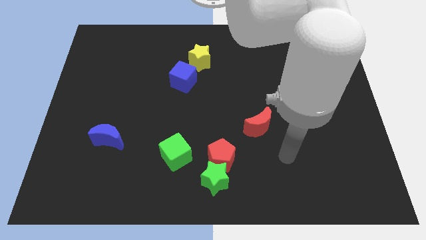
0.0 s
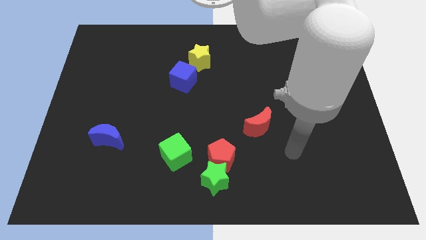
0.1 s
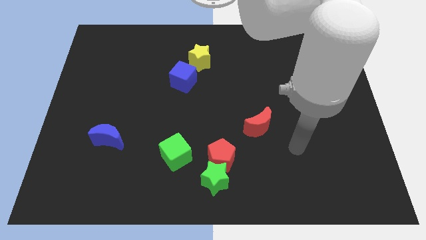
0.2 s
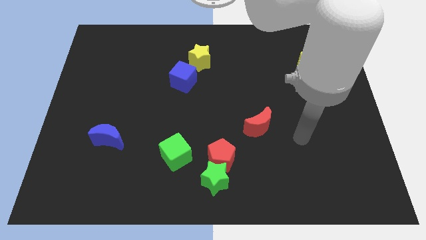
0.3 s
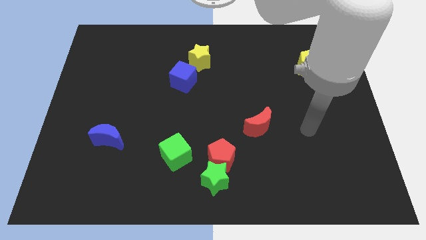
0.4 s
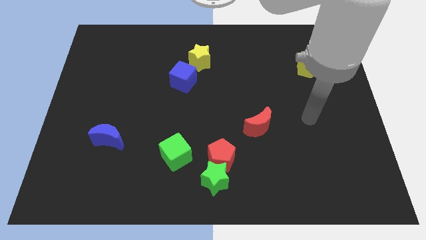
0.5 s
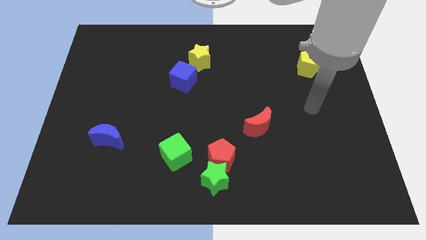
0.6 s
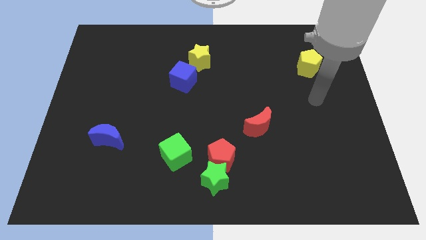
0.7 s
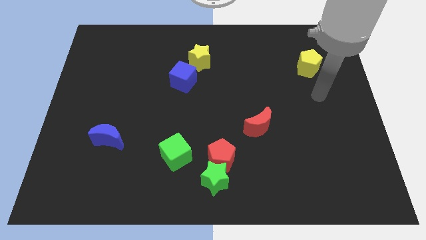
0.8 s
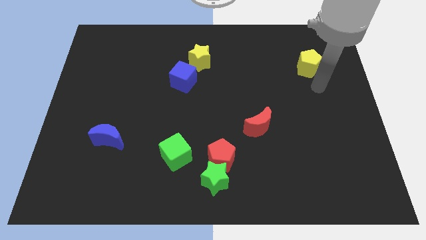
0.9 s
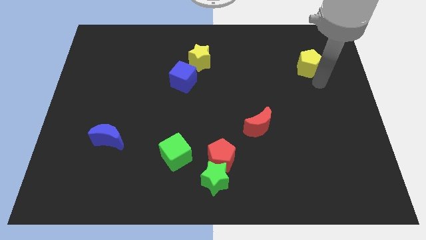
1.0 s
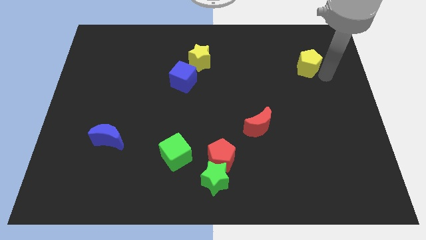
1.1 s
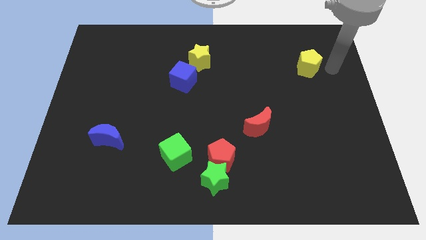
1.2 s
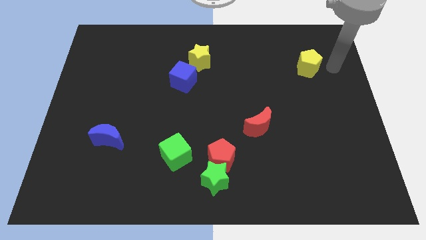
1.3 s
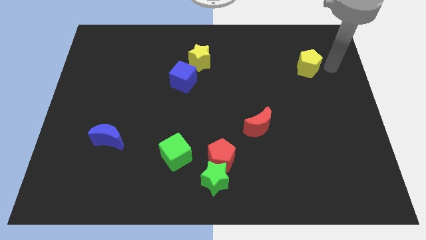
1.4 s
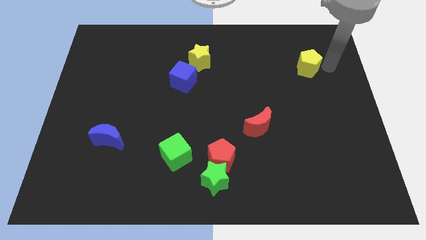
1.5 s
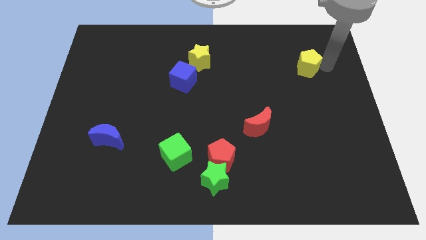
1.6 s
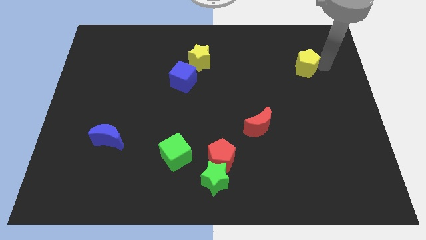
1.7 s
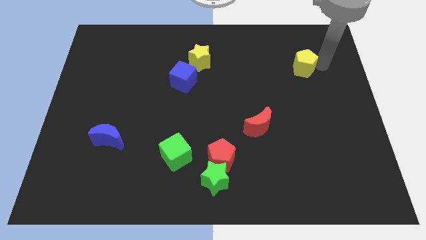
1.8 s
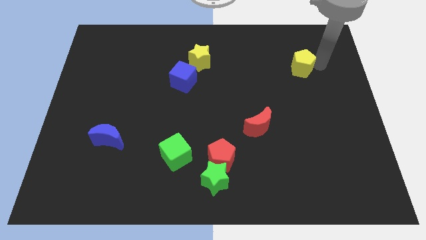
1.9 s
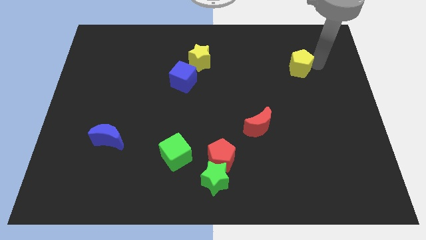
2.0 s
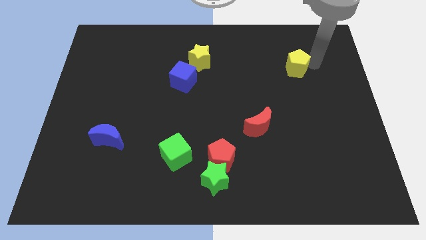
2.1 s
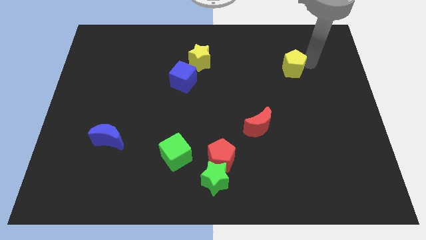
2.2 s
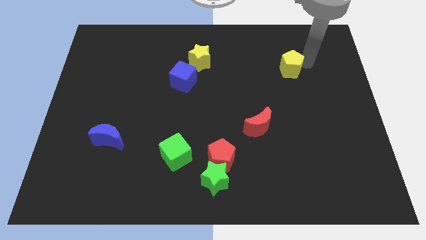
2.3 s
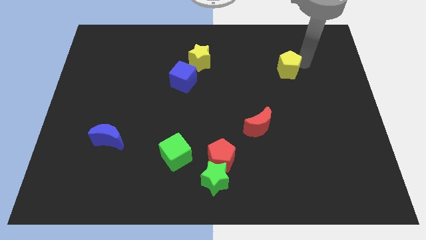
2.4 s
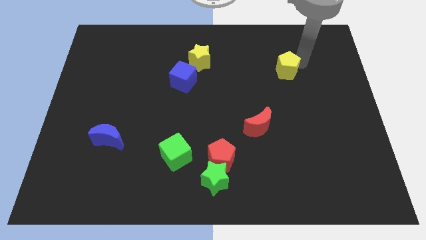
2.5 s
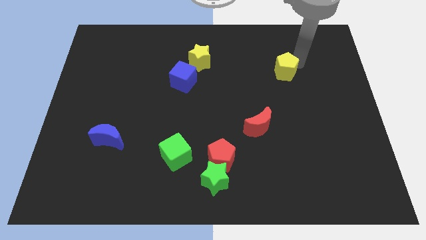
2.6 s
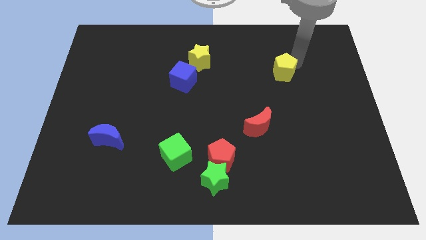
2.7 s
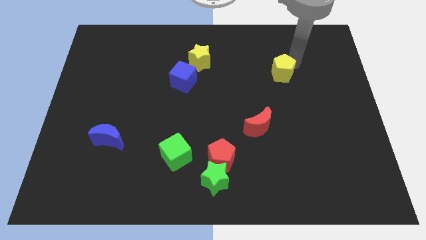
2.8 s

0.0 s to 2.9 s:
push the yellow pentagon to the left a little

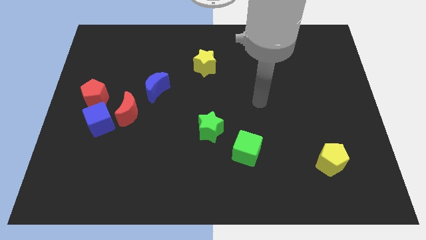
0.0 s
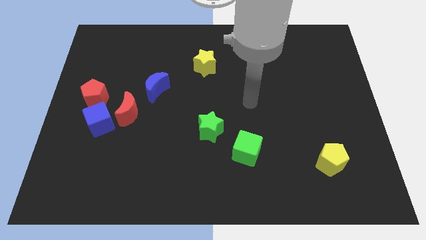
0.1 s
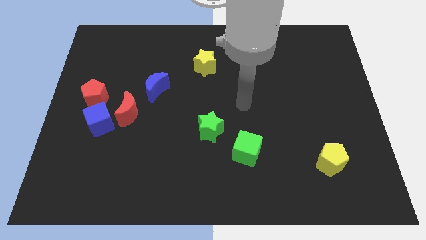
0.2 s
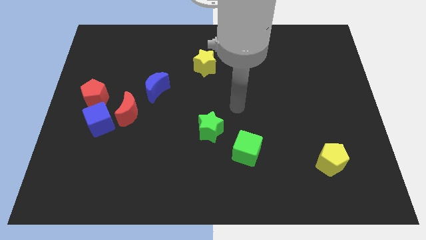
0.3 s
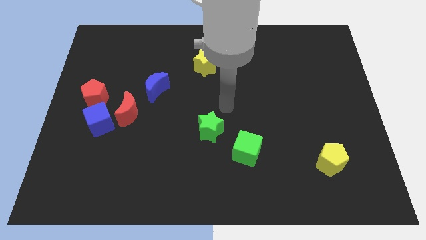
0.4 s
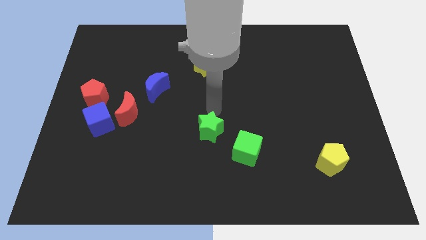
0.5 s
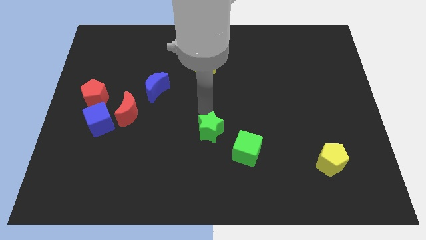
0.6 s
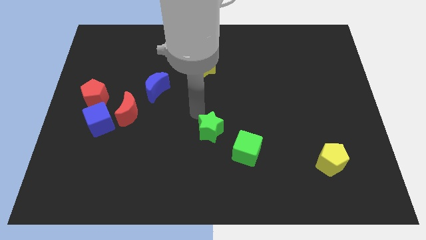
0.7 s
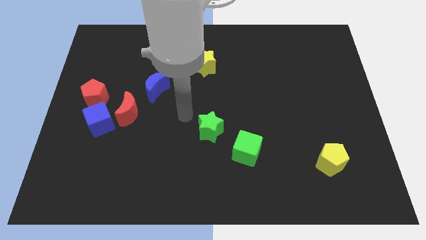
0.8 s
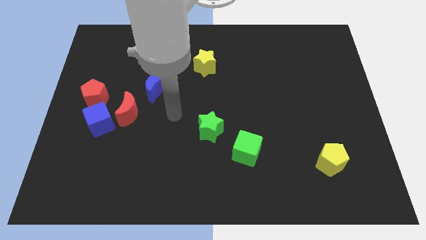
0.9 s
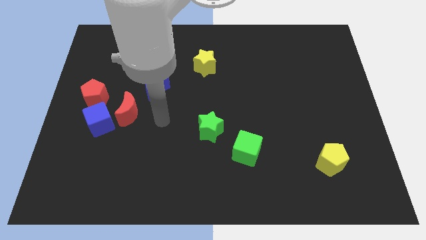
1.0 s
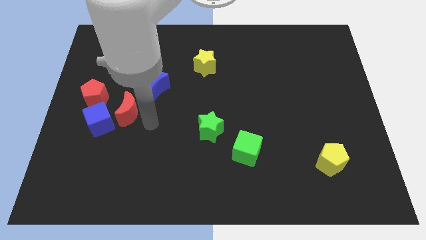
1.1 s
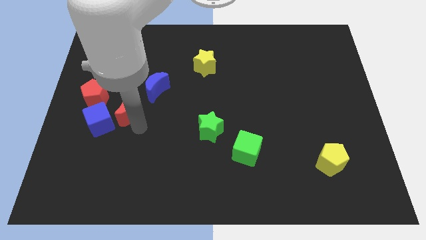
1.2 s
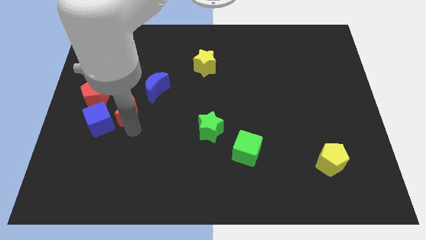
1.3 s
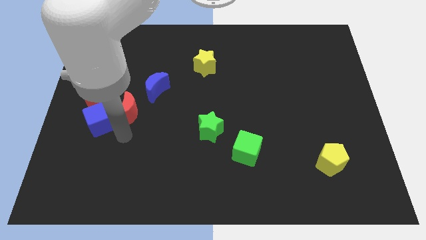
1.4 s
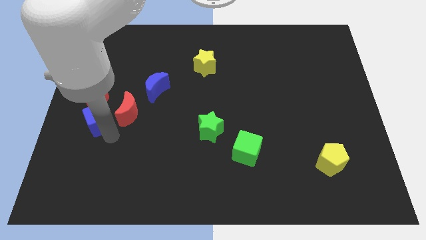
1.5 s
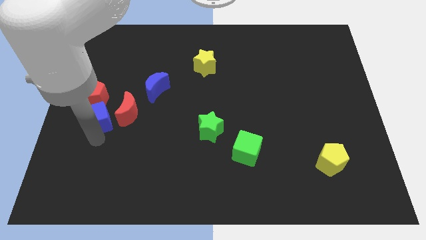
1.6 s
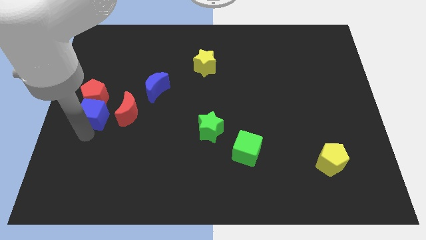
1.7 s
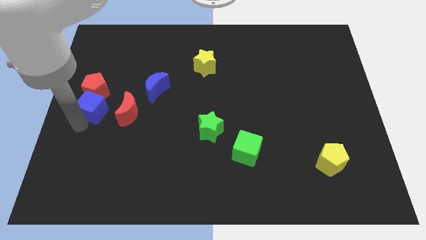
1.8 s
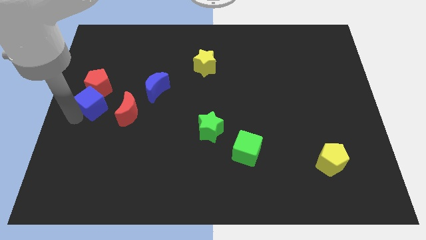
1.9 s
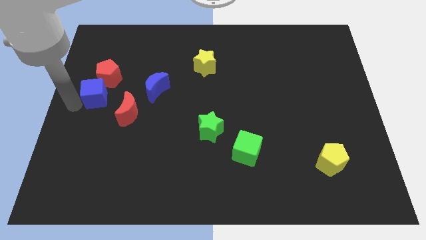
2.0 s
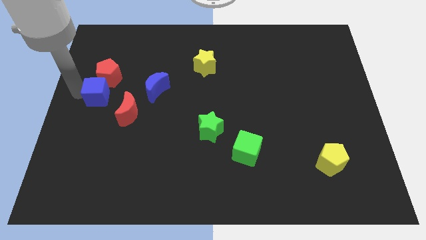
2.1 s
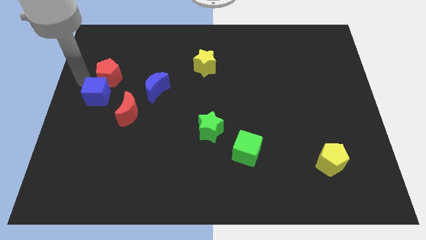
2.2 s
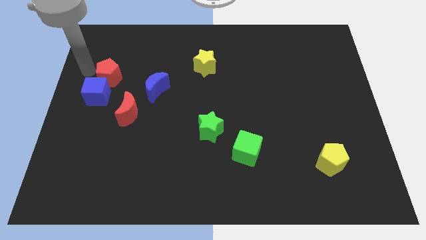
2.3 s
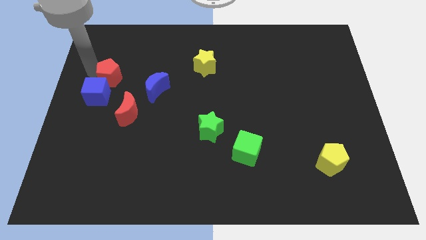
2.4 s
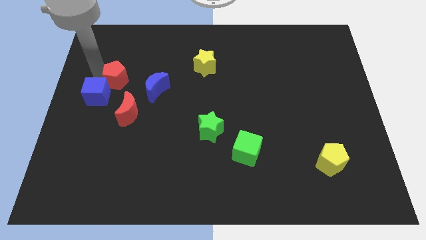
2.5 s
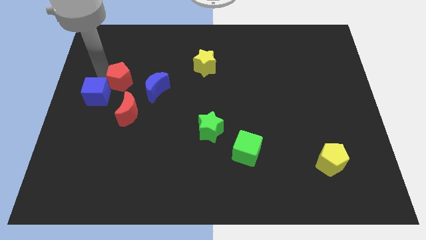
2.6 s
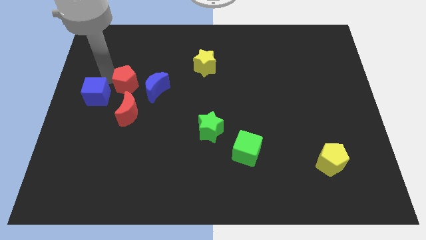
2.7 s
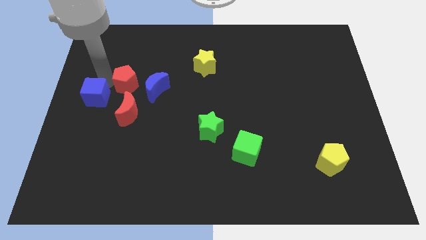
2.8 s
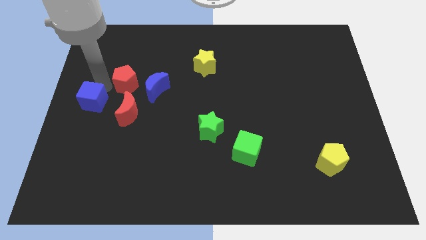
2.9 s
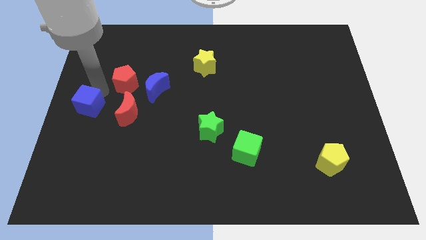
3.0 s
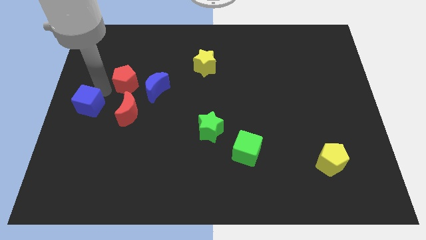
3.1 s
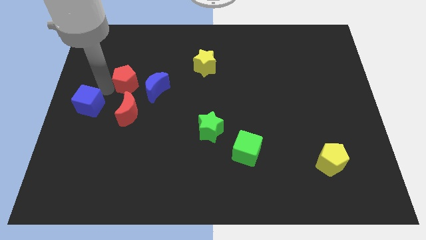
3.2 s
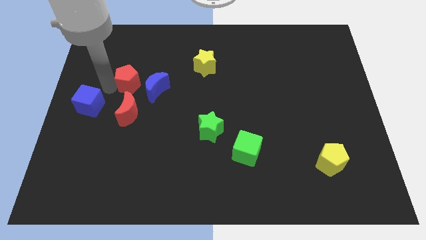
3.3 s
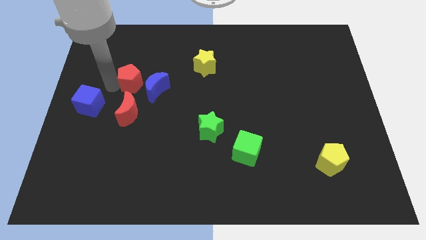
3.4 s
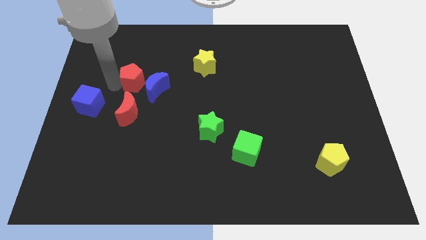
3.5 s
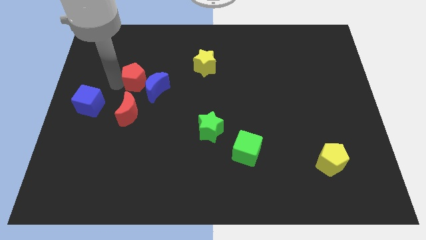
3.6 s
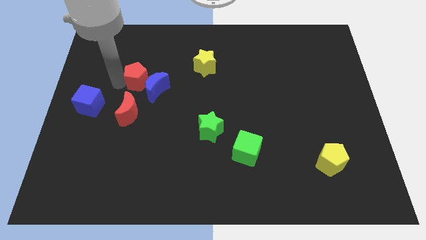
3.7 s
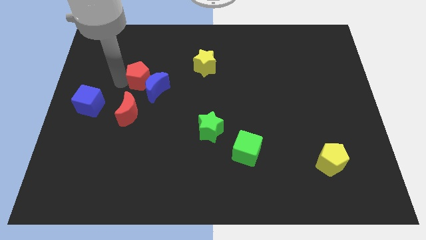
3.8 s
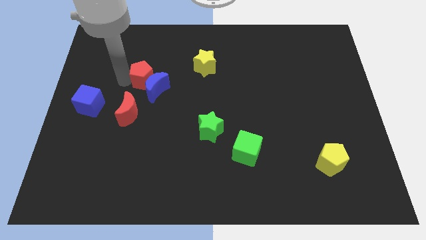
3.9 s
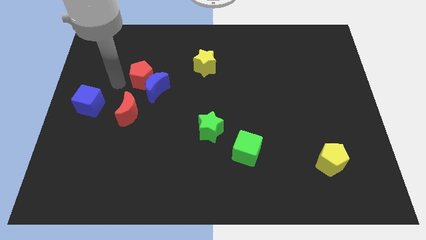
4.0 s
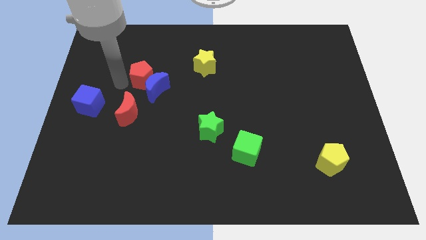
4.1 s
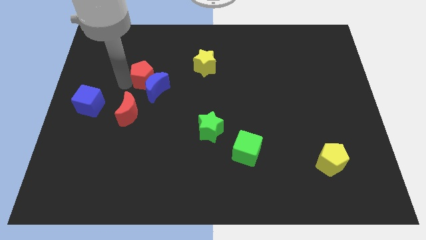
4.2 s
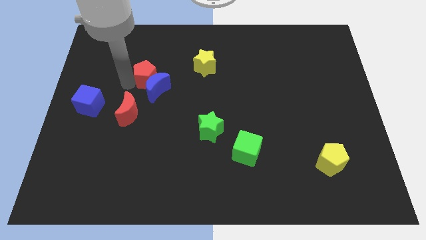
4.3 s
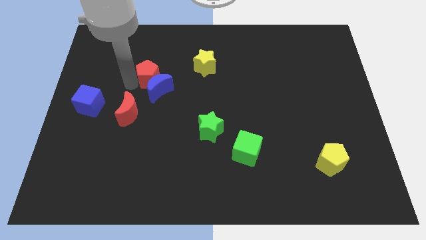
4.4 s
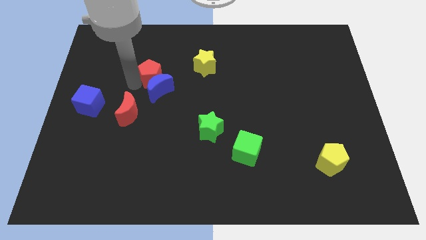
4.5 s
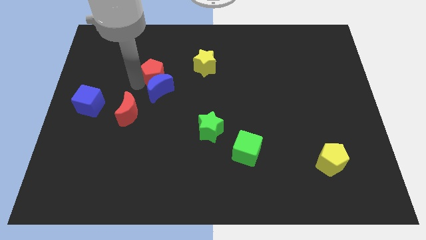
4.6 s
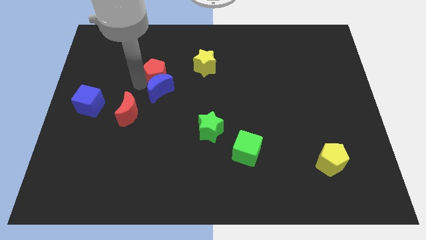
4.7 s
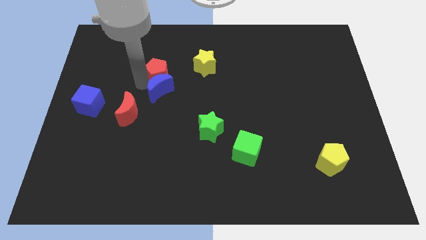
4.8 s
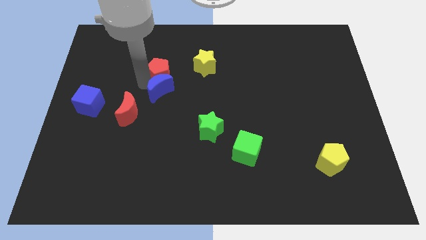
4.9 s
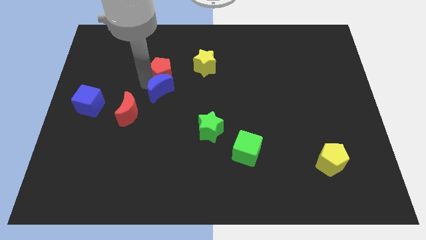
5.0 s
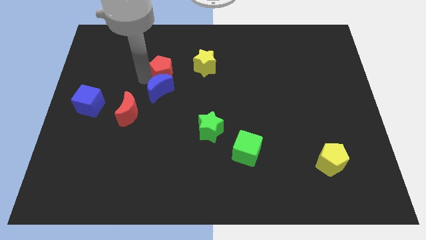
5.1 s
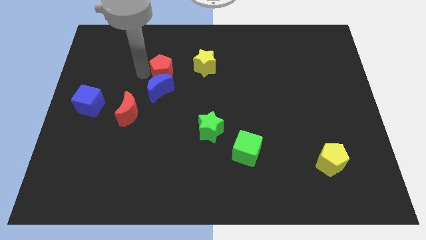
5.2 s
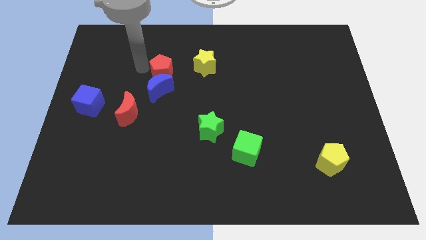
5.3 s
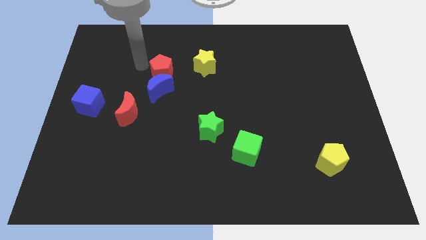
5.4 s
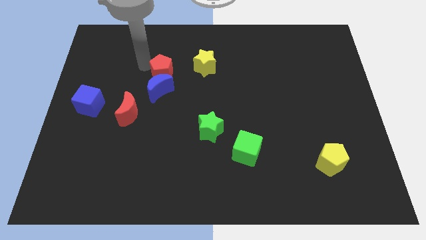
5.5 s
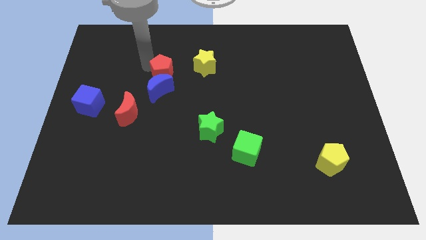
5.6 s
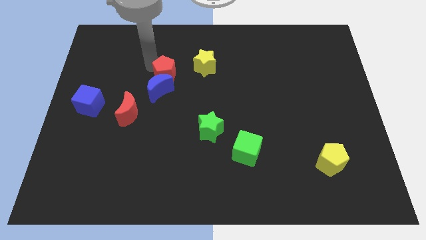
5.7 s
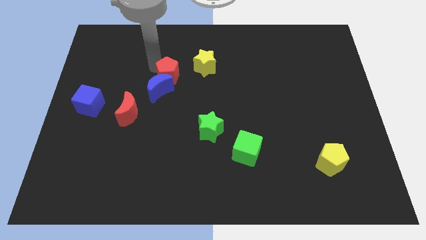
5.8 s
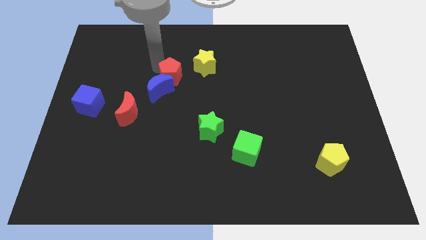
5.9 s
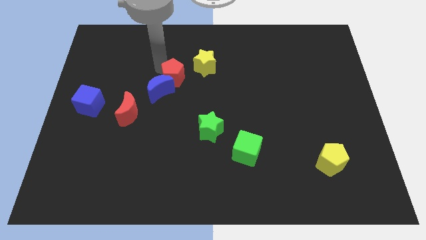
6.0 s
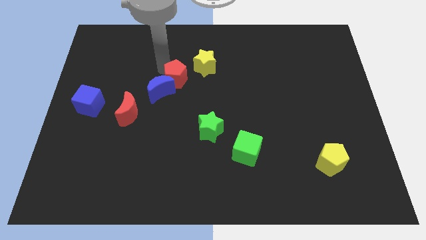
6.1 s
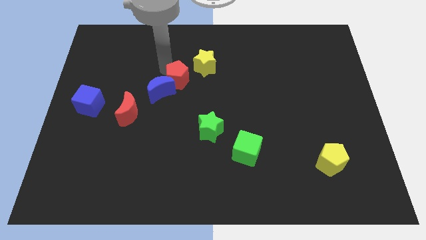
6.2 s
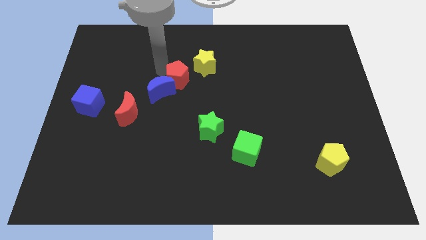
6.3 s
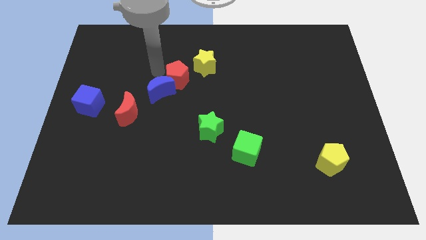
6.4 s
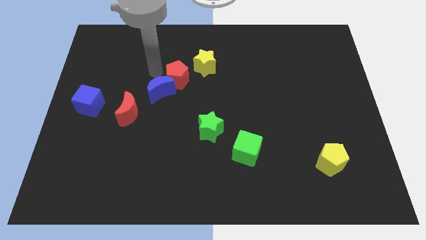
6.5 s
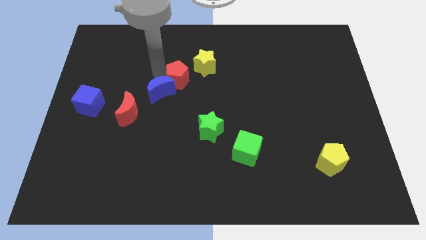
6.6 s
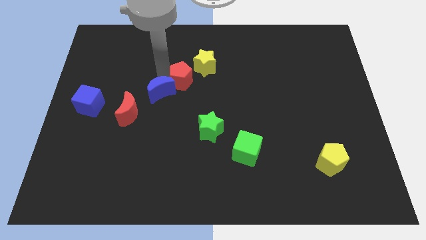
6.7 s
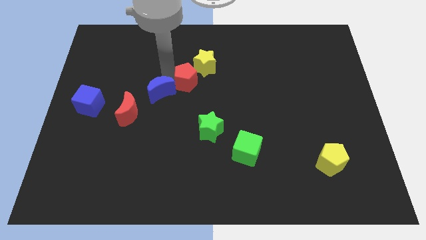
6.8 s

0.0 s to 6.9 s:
slide the red pentagon right
